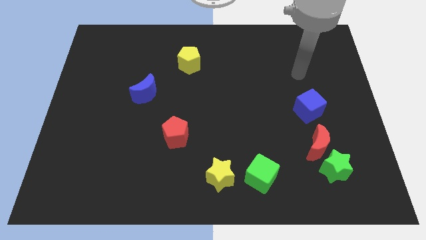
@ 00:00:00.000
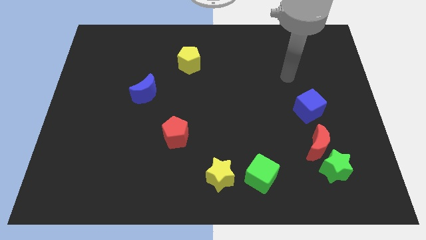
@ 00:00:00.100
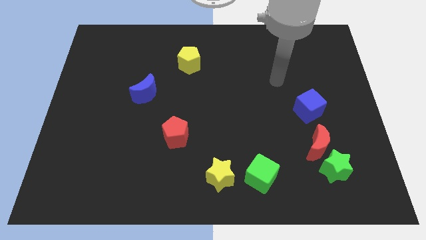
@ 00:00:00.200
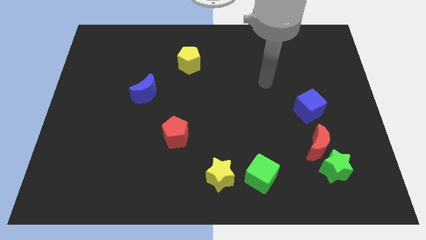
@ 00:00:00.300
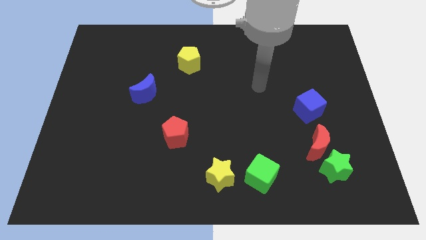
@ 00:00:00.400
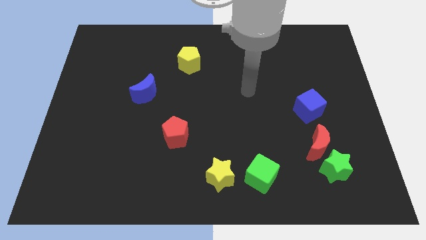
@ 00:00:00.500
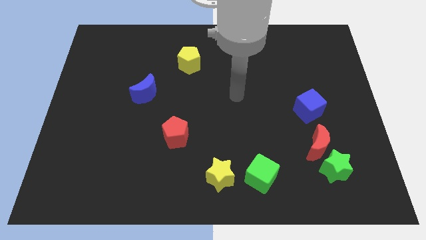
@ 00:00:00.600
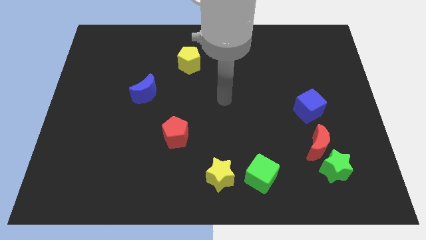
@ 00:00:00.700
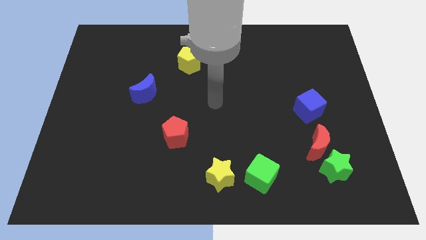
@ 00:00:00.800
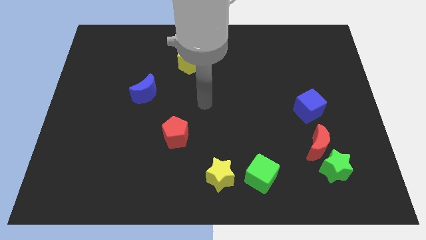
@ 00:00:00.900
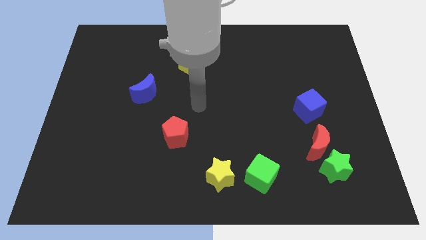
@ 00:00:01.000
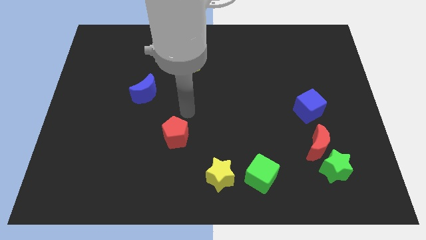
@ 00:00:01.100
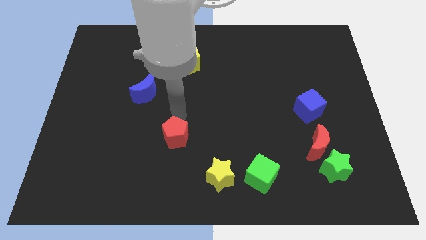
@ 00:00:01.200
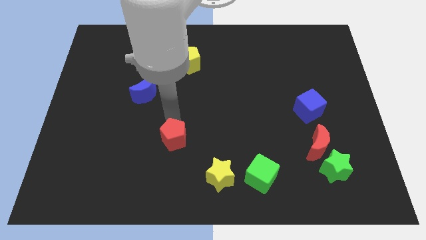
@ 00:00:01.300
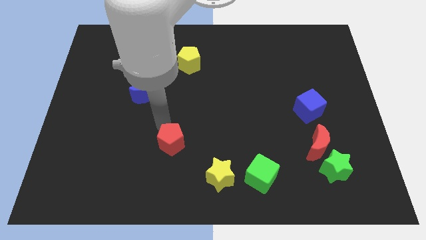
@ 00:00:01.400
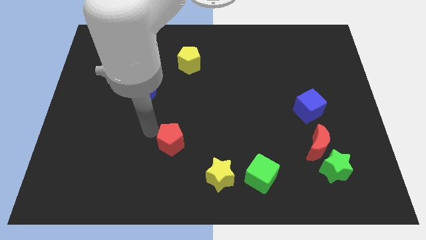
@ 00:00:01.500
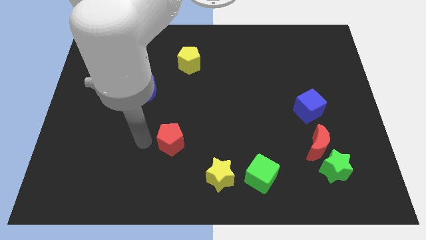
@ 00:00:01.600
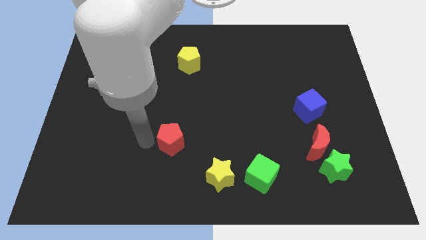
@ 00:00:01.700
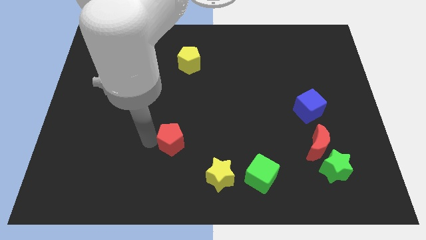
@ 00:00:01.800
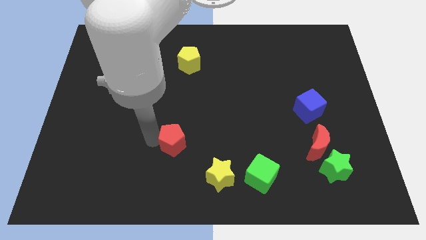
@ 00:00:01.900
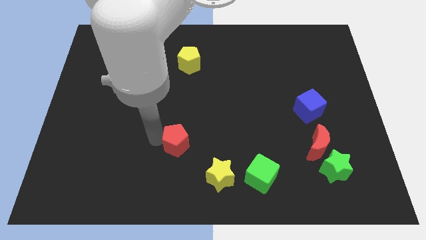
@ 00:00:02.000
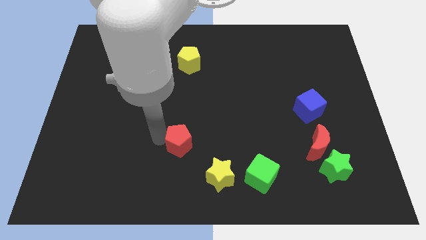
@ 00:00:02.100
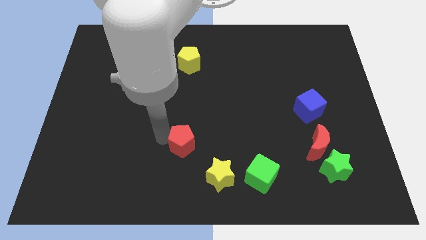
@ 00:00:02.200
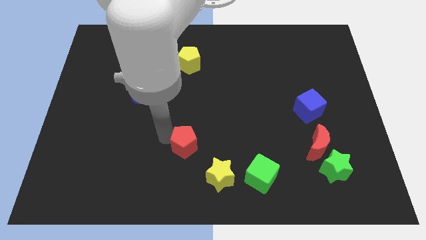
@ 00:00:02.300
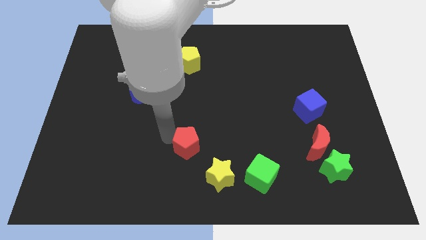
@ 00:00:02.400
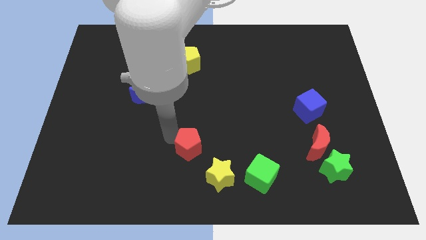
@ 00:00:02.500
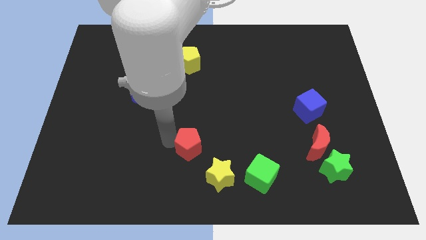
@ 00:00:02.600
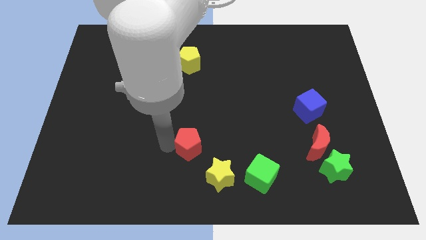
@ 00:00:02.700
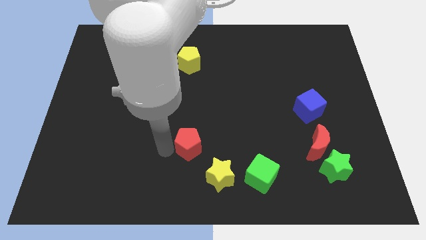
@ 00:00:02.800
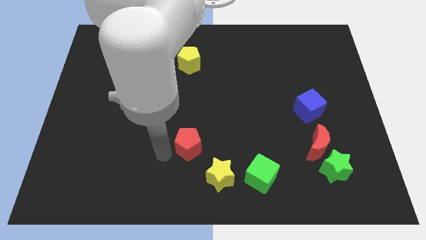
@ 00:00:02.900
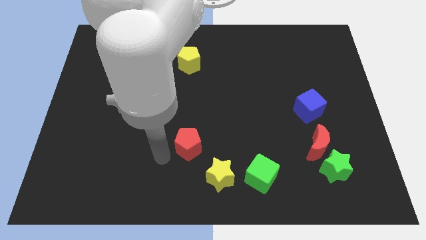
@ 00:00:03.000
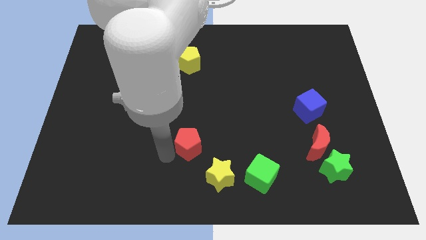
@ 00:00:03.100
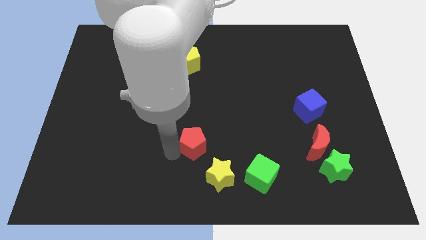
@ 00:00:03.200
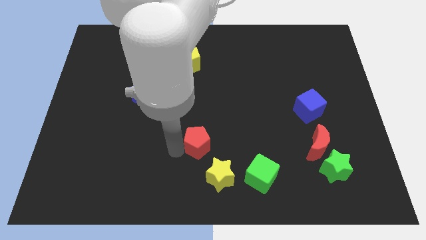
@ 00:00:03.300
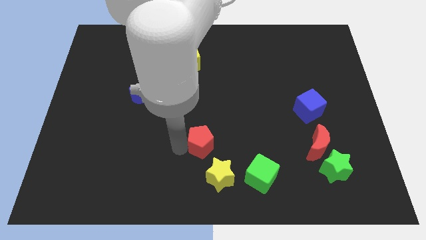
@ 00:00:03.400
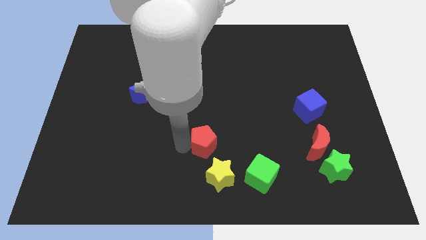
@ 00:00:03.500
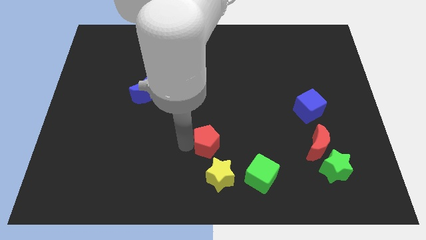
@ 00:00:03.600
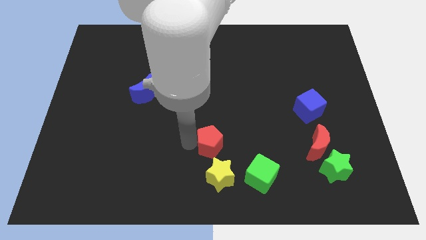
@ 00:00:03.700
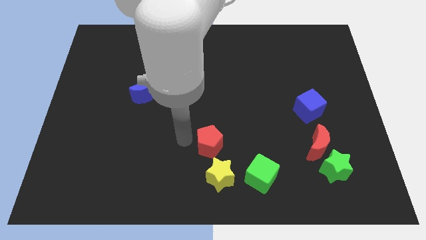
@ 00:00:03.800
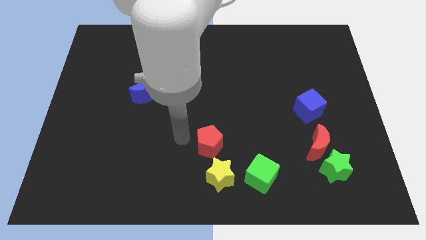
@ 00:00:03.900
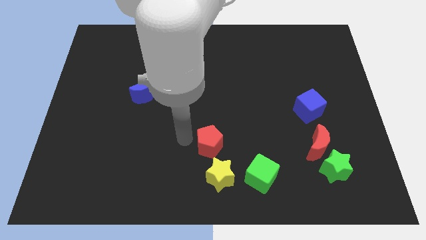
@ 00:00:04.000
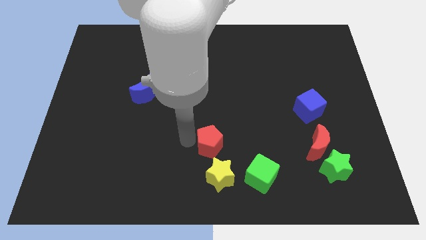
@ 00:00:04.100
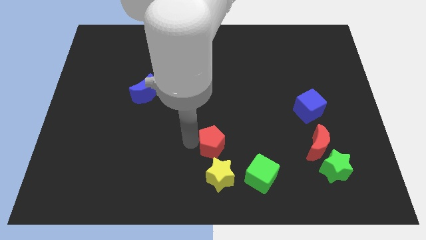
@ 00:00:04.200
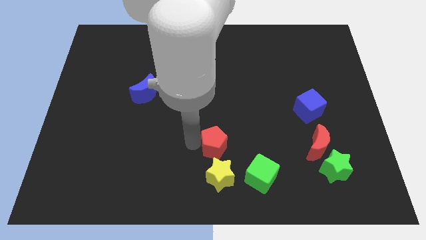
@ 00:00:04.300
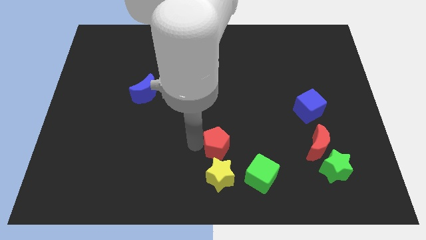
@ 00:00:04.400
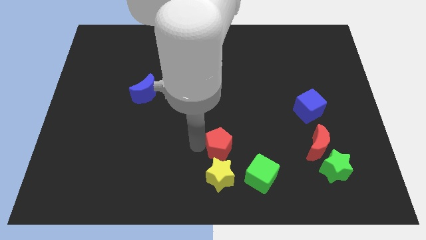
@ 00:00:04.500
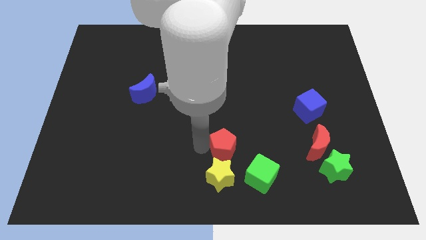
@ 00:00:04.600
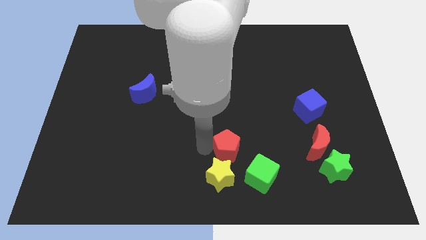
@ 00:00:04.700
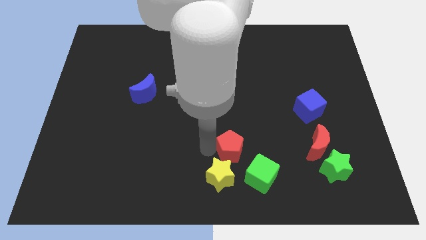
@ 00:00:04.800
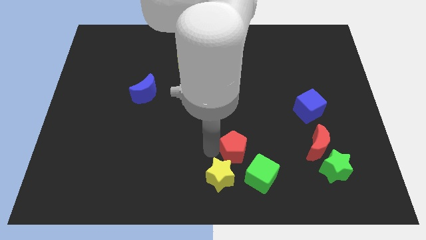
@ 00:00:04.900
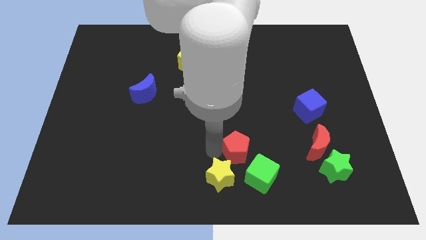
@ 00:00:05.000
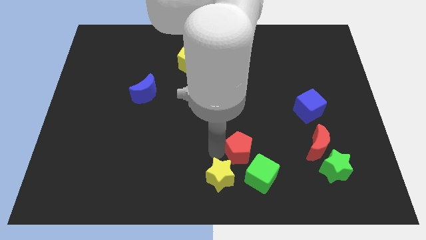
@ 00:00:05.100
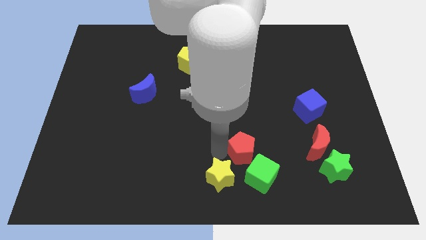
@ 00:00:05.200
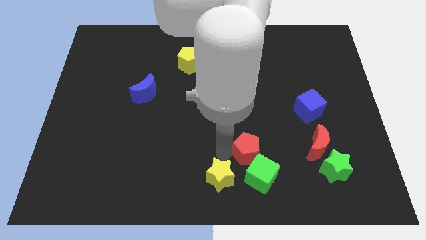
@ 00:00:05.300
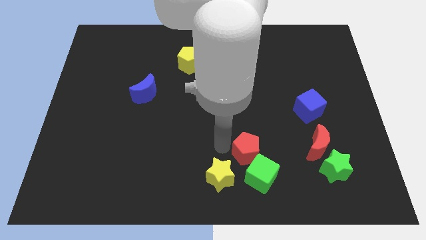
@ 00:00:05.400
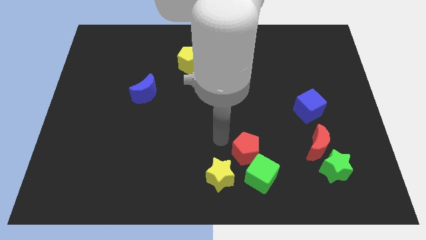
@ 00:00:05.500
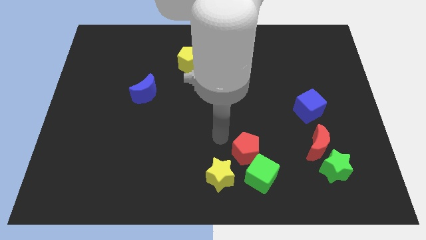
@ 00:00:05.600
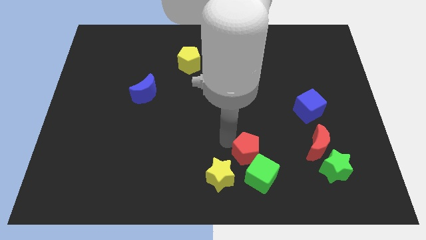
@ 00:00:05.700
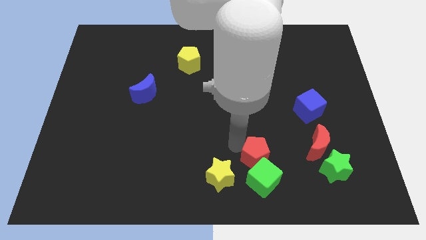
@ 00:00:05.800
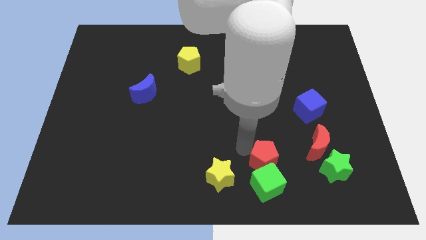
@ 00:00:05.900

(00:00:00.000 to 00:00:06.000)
slide the red pentagon just left of the green star
